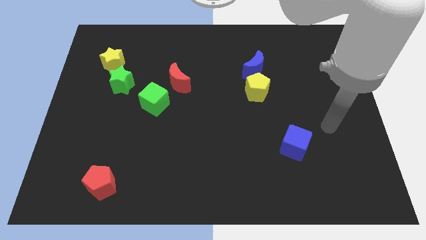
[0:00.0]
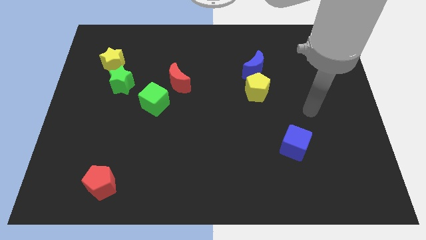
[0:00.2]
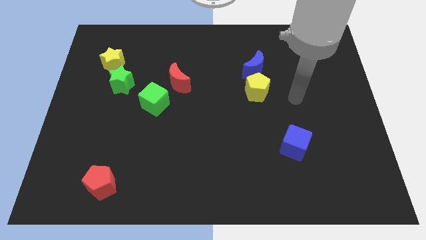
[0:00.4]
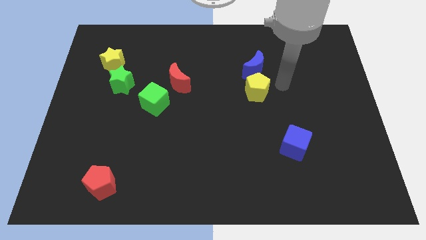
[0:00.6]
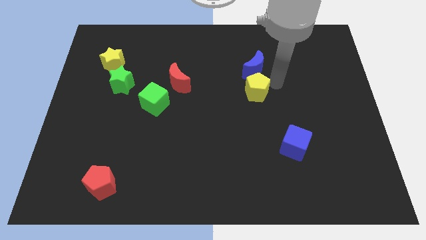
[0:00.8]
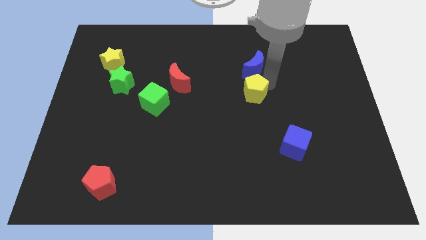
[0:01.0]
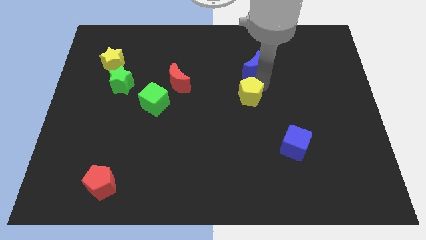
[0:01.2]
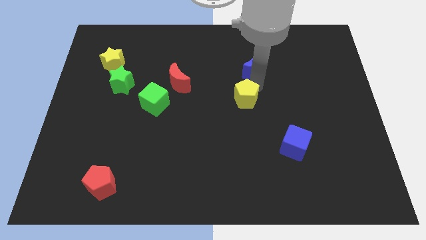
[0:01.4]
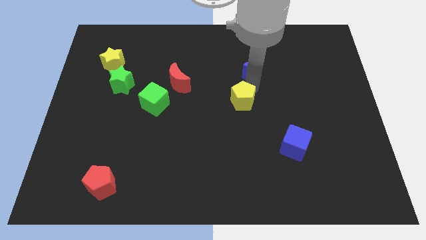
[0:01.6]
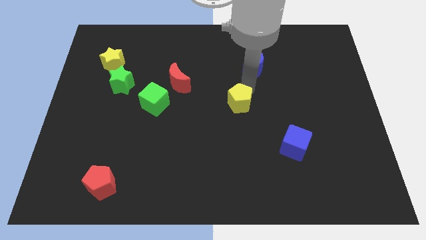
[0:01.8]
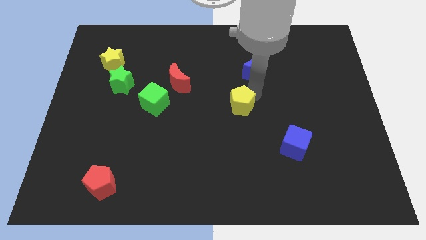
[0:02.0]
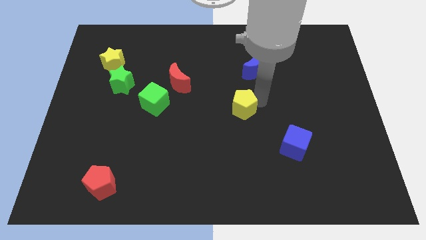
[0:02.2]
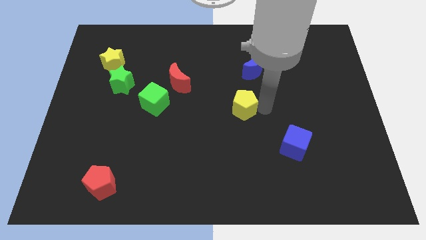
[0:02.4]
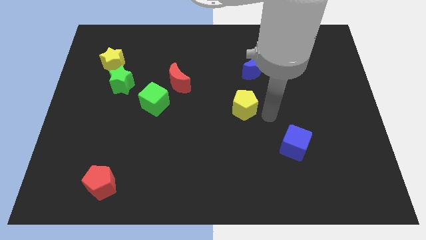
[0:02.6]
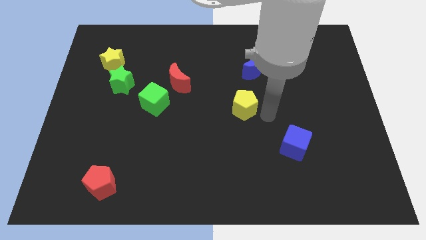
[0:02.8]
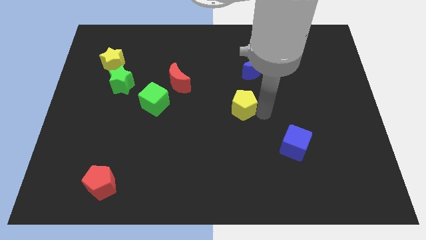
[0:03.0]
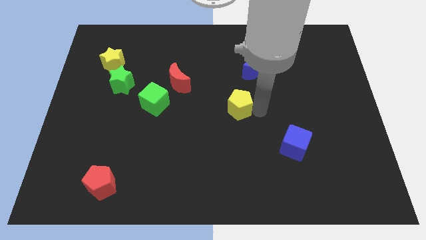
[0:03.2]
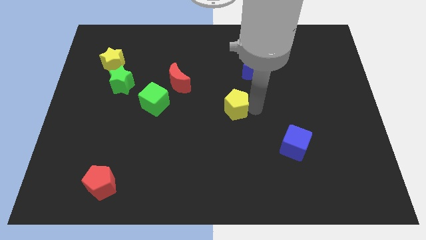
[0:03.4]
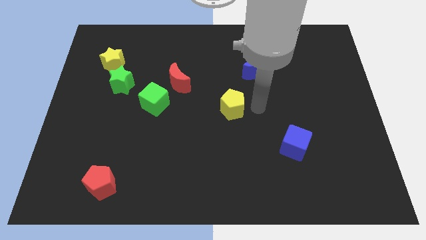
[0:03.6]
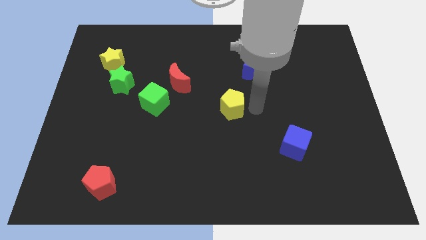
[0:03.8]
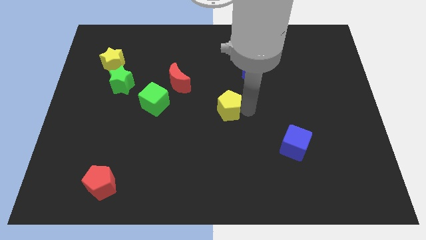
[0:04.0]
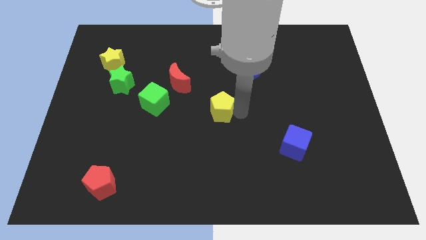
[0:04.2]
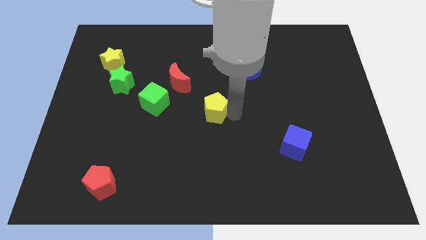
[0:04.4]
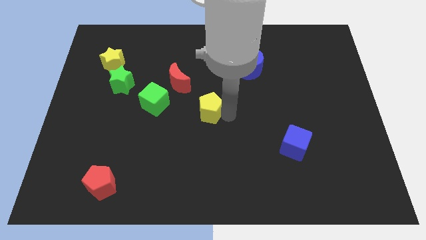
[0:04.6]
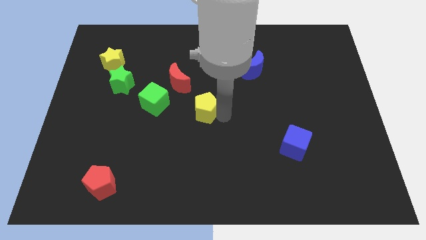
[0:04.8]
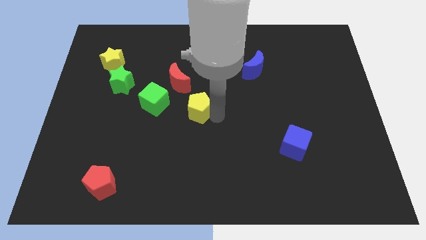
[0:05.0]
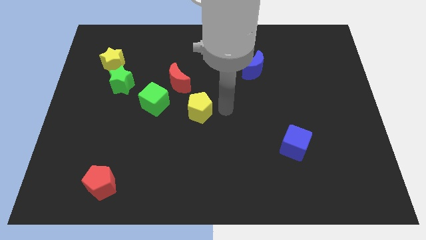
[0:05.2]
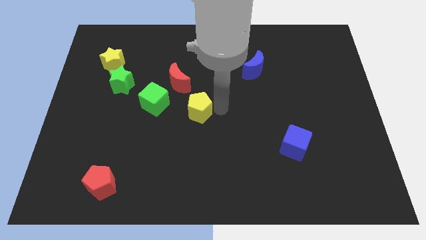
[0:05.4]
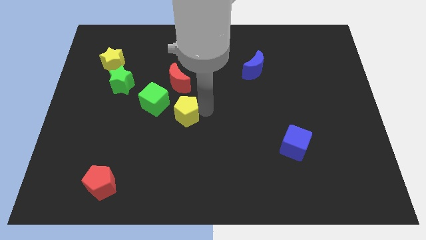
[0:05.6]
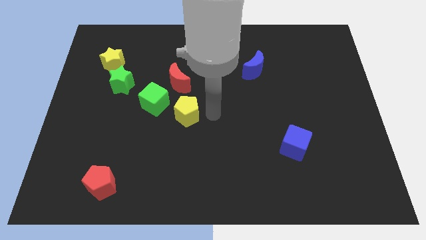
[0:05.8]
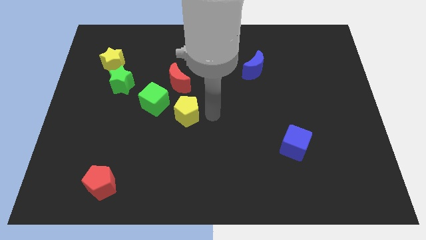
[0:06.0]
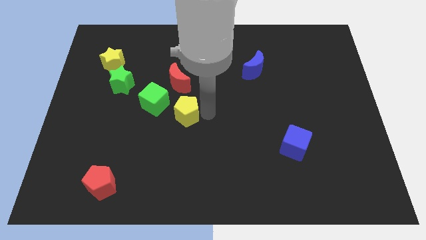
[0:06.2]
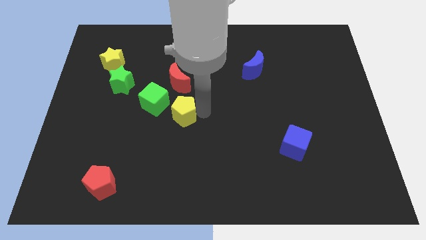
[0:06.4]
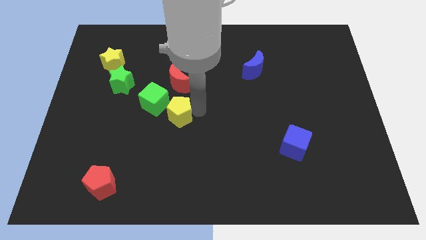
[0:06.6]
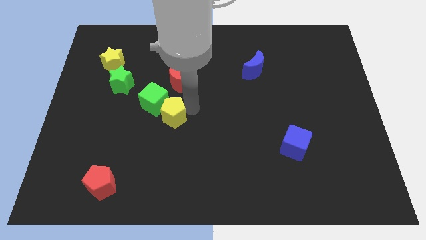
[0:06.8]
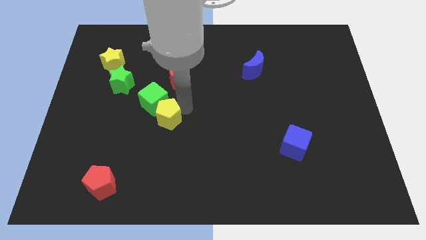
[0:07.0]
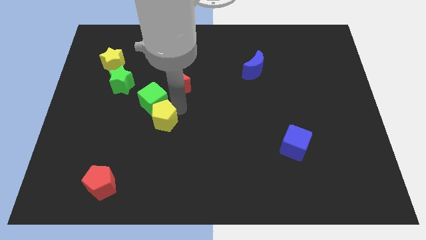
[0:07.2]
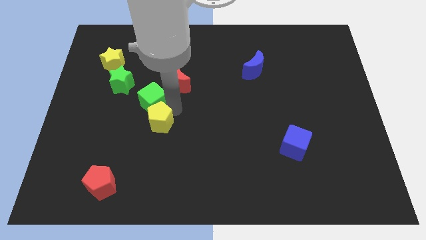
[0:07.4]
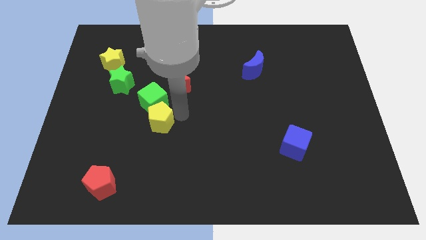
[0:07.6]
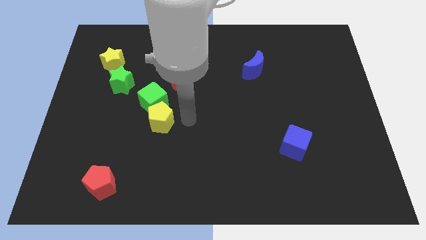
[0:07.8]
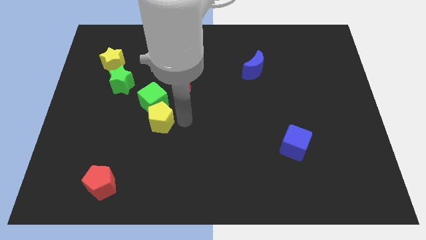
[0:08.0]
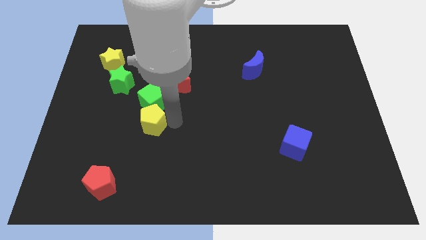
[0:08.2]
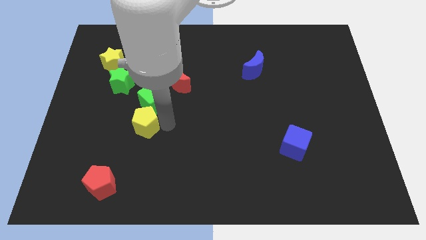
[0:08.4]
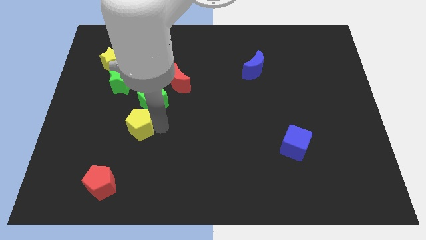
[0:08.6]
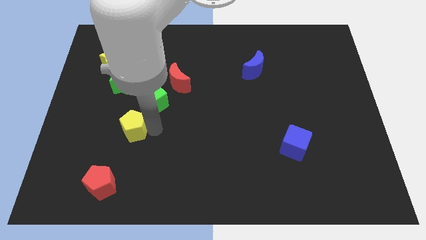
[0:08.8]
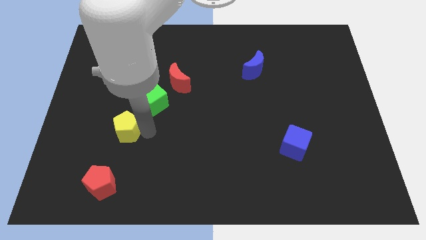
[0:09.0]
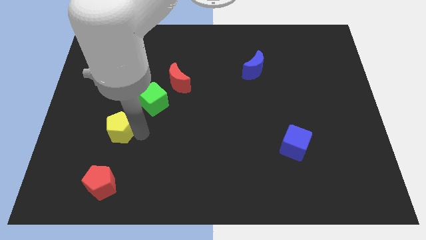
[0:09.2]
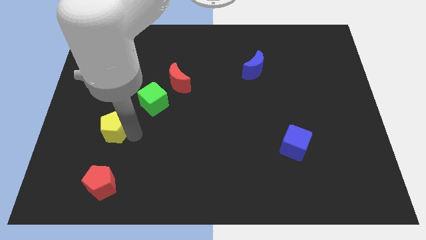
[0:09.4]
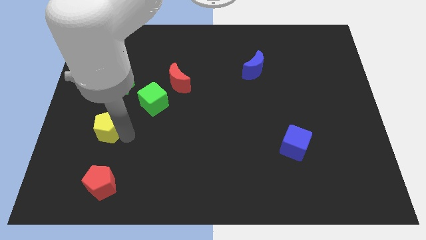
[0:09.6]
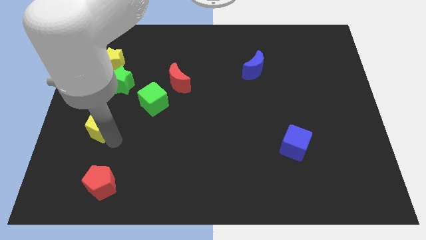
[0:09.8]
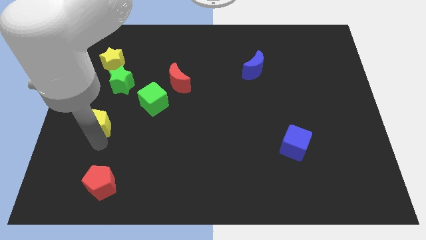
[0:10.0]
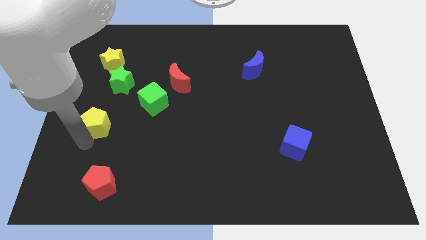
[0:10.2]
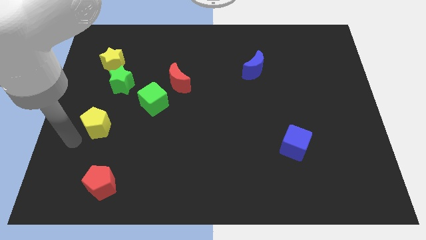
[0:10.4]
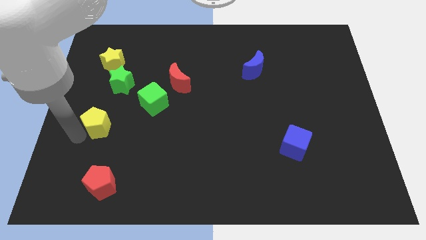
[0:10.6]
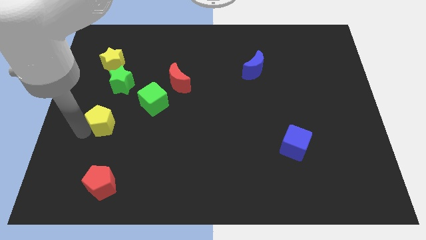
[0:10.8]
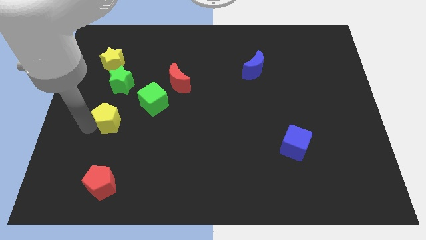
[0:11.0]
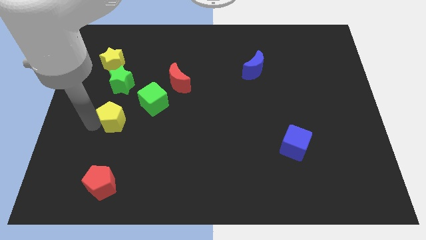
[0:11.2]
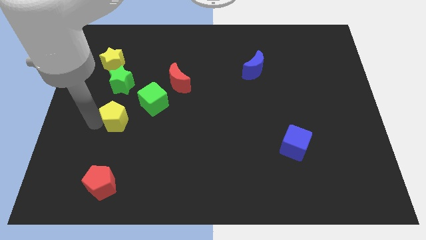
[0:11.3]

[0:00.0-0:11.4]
move the yellow pentagon to the left side of the green cube

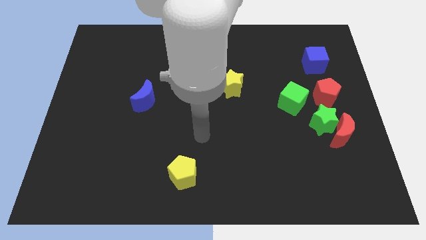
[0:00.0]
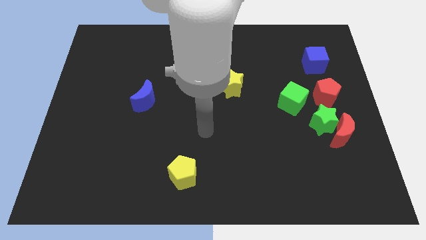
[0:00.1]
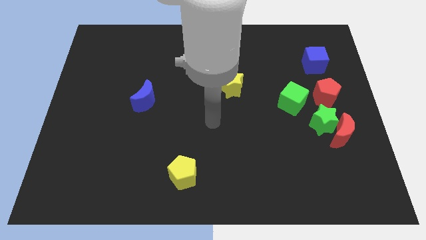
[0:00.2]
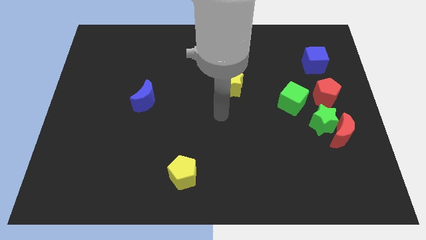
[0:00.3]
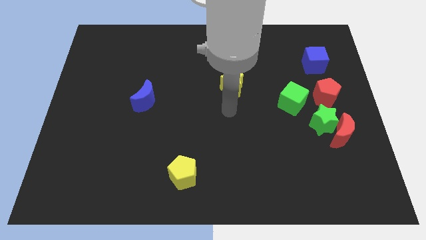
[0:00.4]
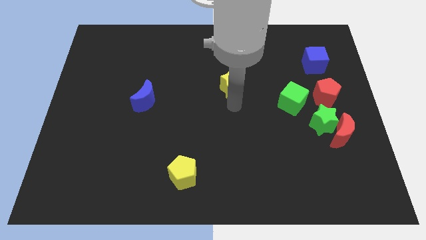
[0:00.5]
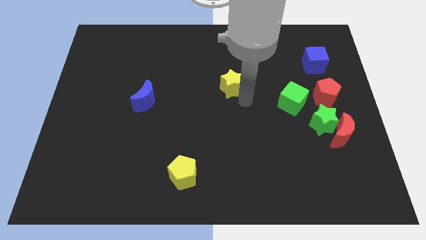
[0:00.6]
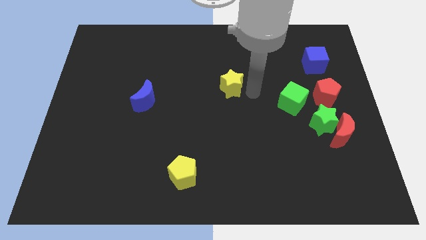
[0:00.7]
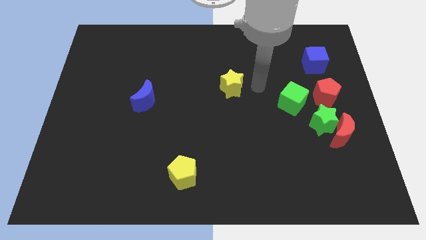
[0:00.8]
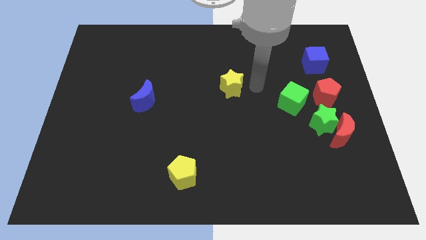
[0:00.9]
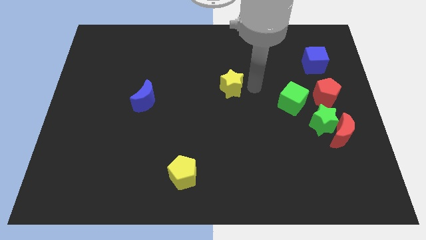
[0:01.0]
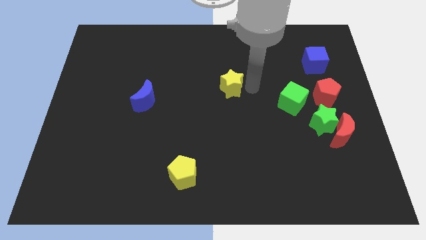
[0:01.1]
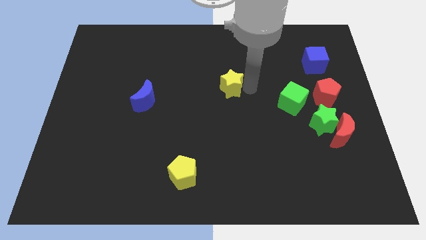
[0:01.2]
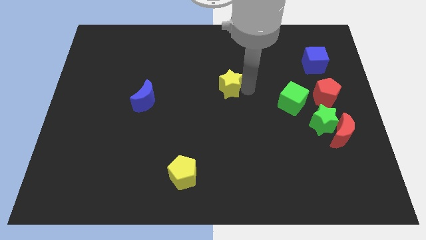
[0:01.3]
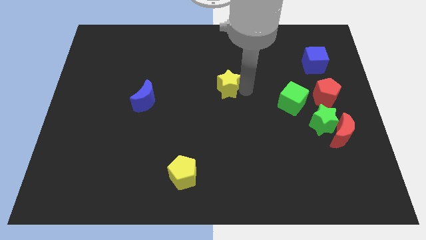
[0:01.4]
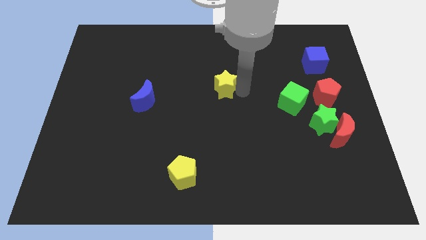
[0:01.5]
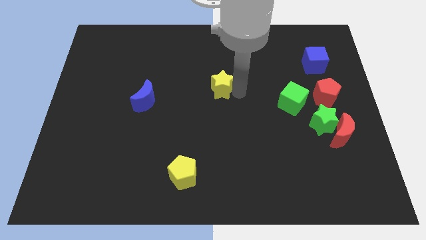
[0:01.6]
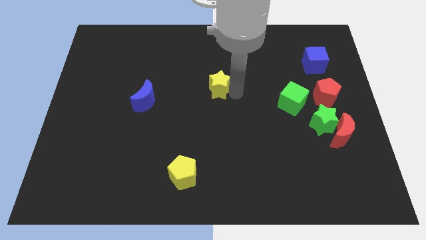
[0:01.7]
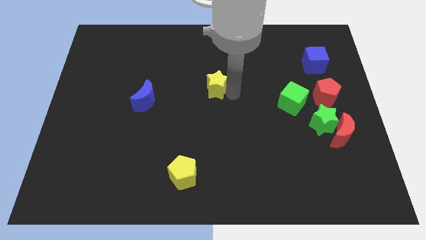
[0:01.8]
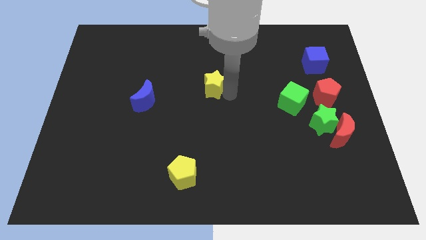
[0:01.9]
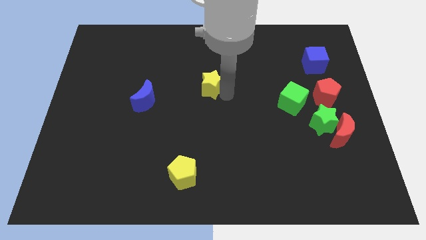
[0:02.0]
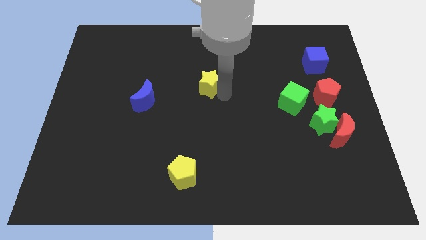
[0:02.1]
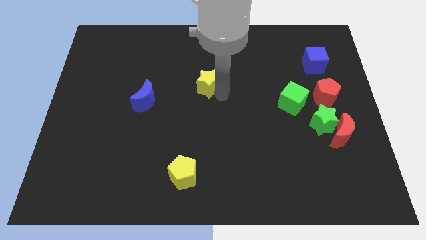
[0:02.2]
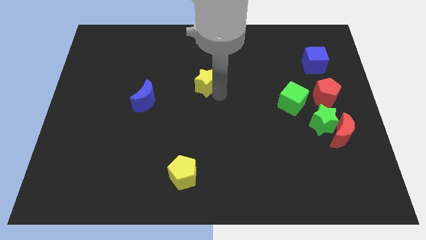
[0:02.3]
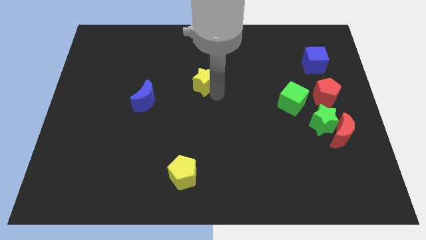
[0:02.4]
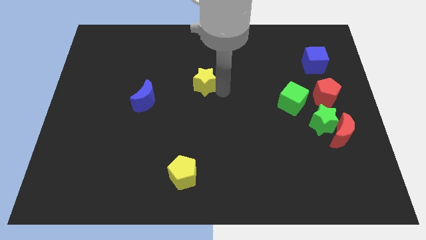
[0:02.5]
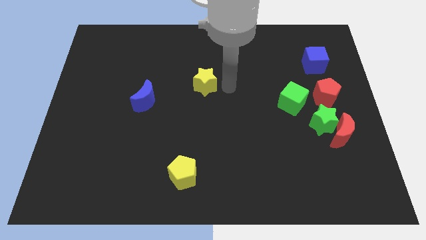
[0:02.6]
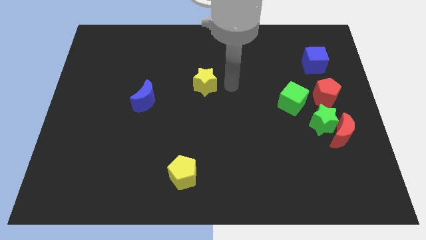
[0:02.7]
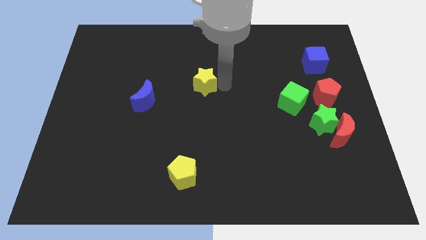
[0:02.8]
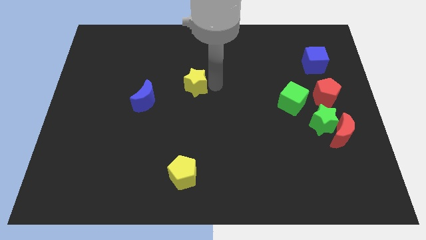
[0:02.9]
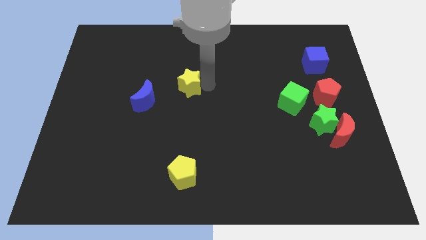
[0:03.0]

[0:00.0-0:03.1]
put the yellow star to the top right of the blue moon
